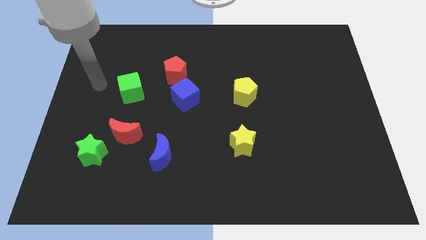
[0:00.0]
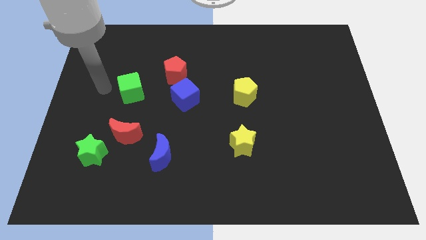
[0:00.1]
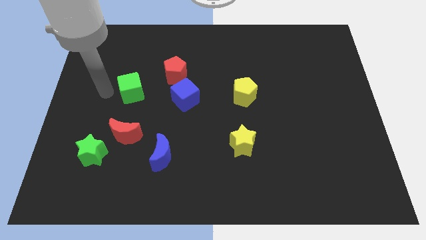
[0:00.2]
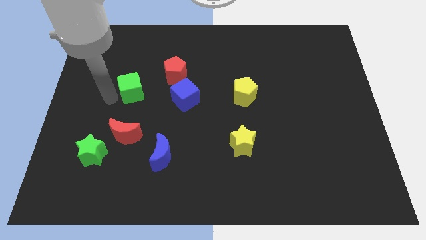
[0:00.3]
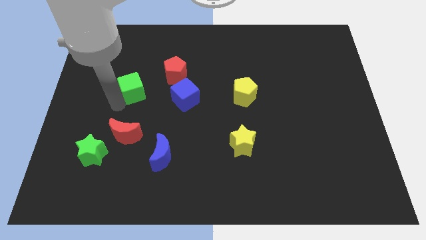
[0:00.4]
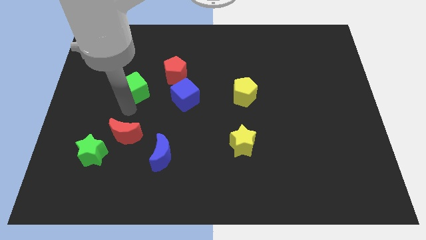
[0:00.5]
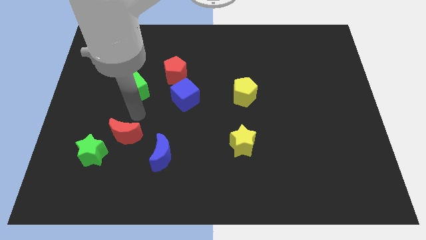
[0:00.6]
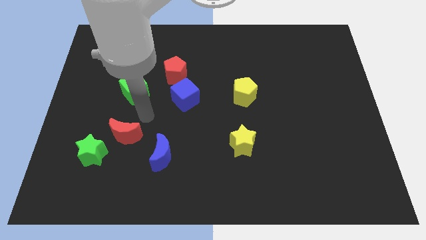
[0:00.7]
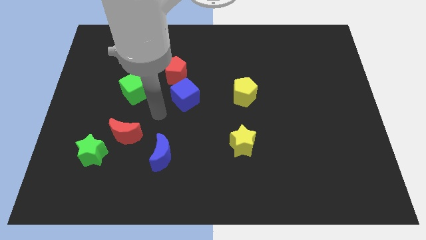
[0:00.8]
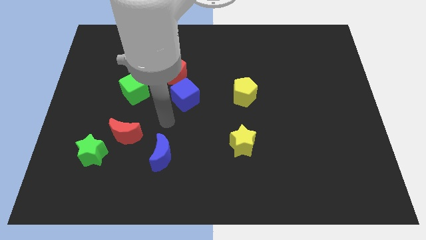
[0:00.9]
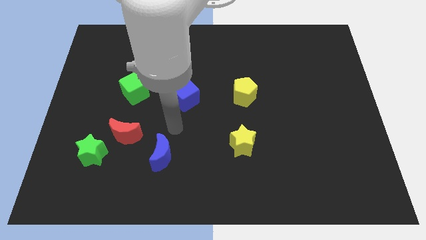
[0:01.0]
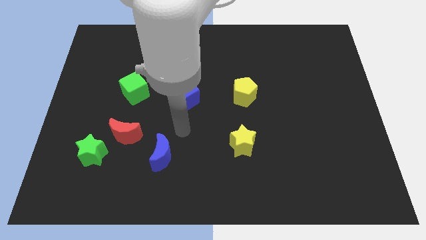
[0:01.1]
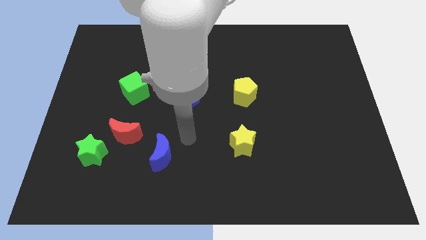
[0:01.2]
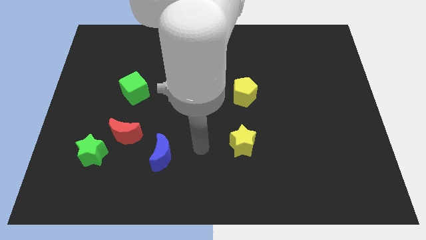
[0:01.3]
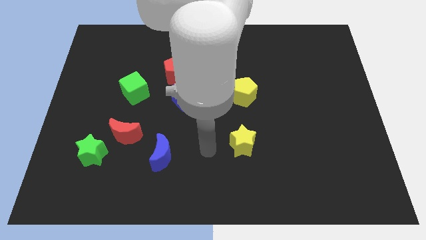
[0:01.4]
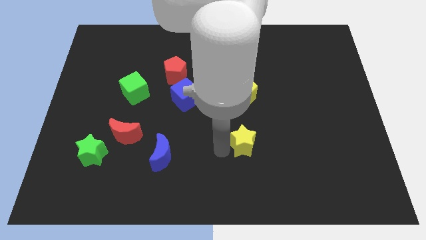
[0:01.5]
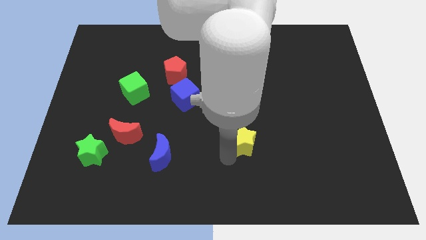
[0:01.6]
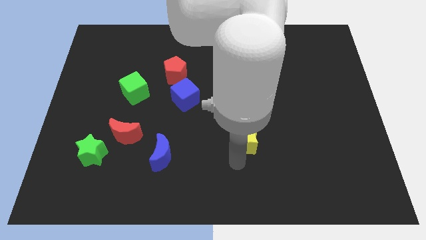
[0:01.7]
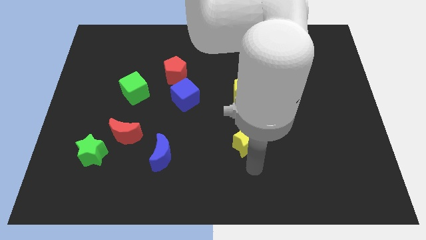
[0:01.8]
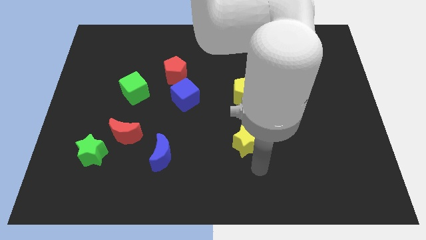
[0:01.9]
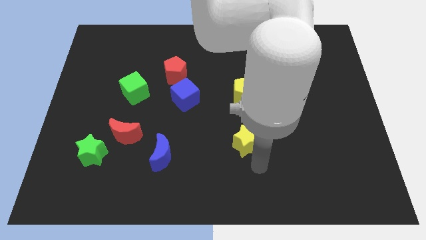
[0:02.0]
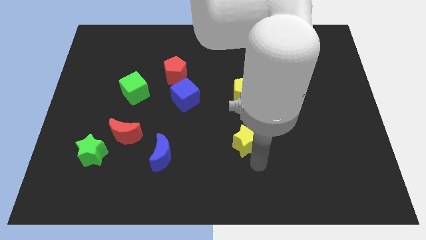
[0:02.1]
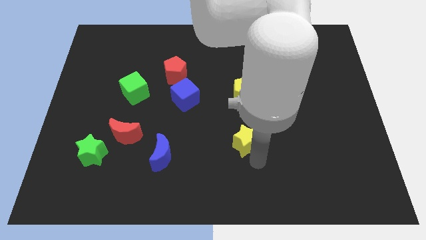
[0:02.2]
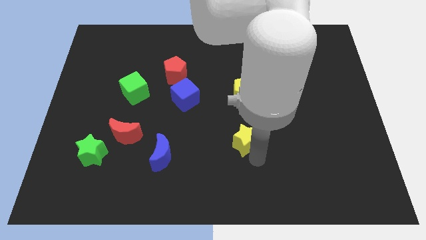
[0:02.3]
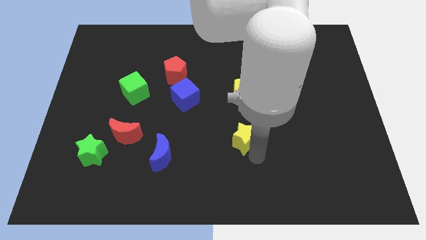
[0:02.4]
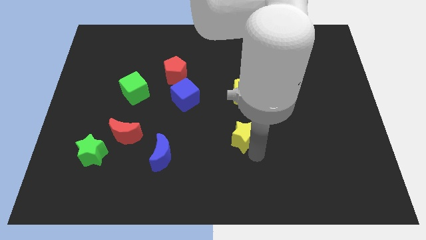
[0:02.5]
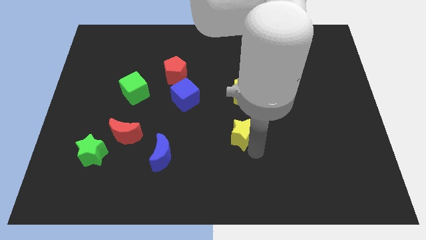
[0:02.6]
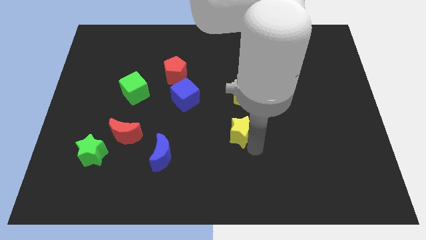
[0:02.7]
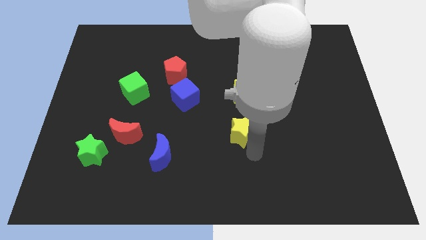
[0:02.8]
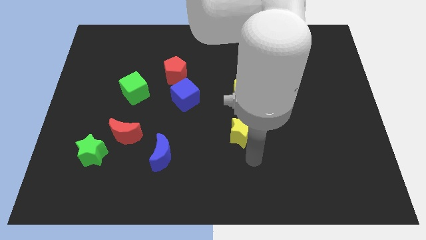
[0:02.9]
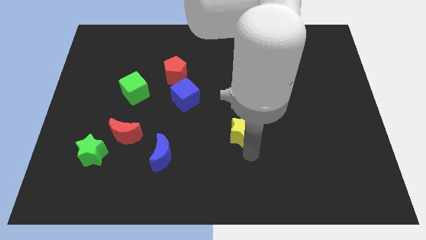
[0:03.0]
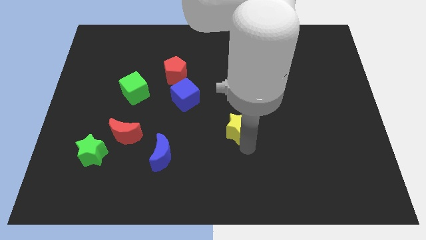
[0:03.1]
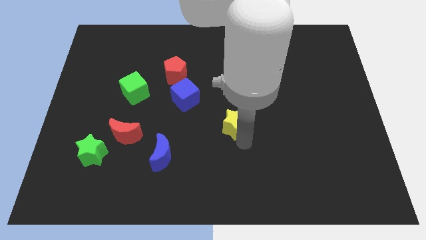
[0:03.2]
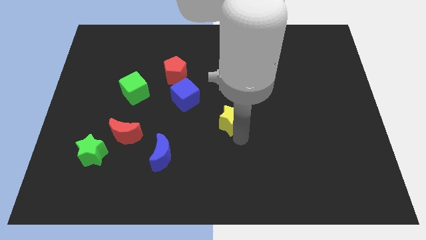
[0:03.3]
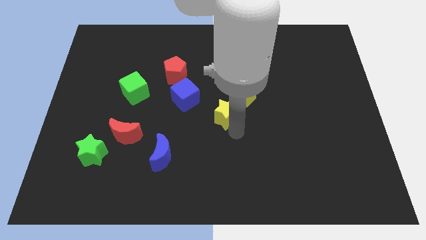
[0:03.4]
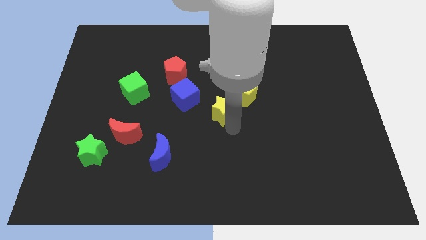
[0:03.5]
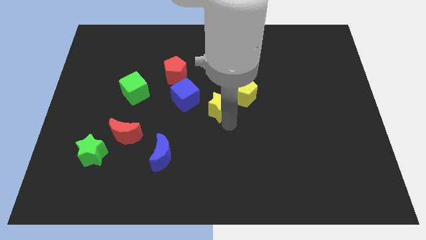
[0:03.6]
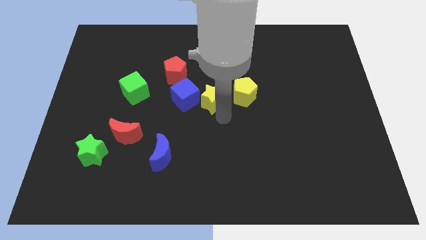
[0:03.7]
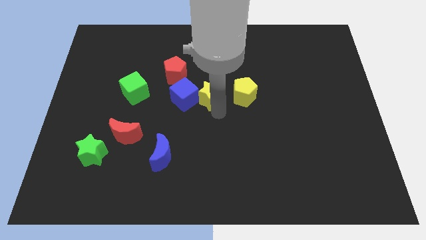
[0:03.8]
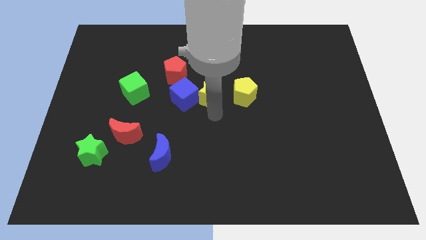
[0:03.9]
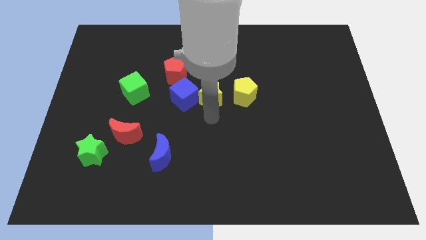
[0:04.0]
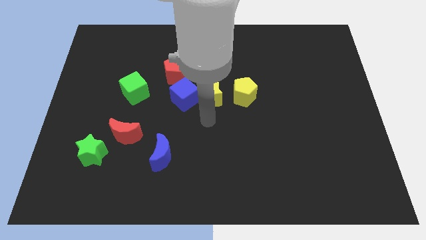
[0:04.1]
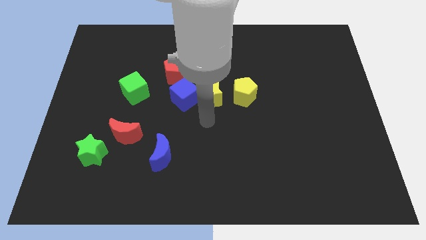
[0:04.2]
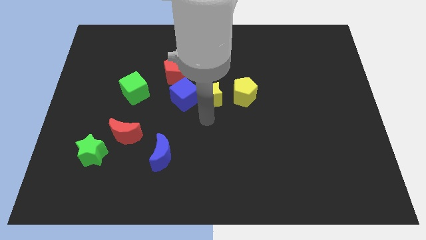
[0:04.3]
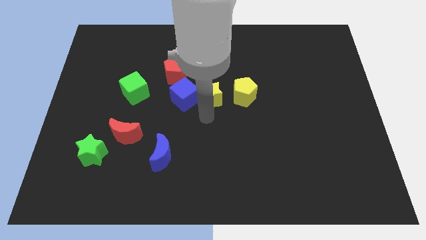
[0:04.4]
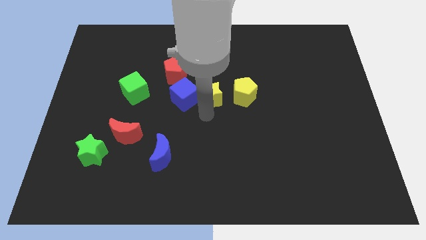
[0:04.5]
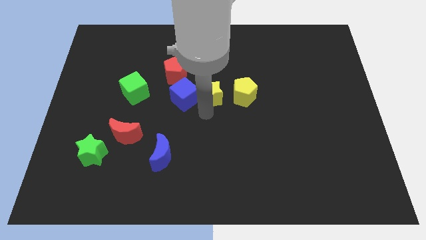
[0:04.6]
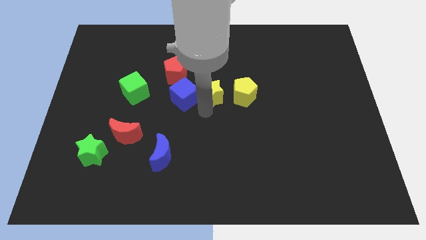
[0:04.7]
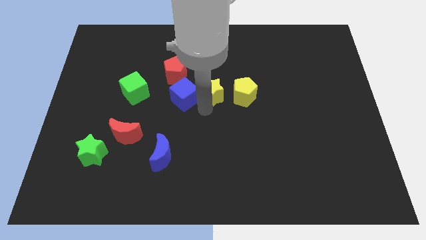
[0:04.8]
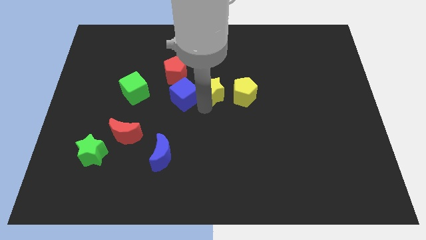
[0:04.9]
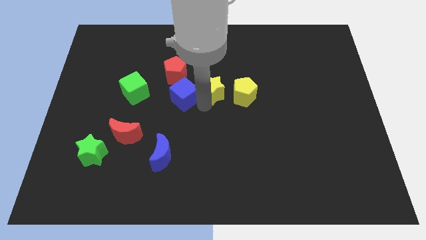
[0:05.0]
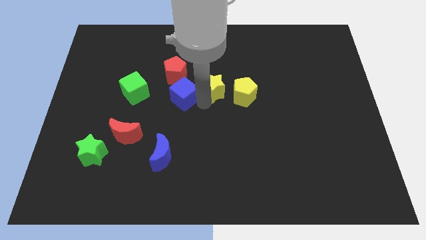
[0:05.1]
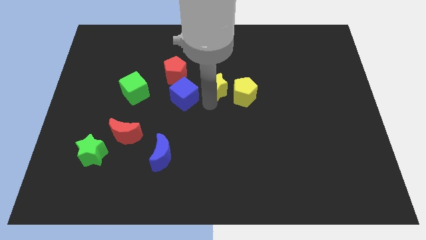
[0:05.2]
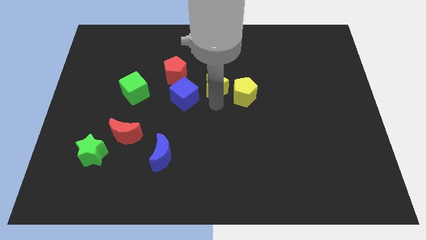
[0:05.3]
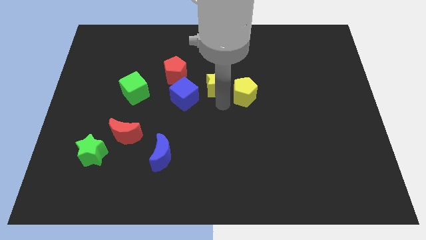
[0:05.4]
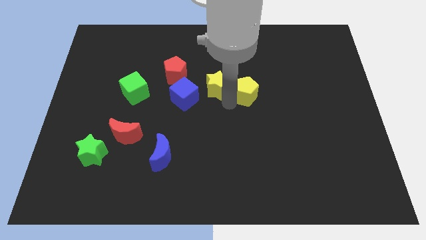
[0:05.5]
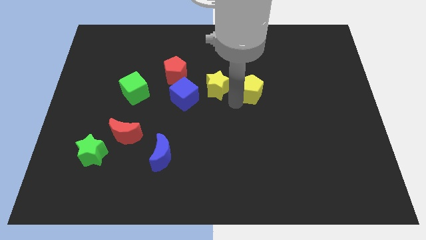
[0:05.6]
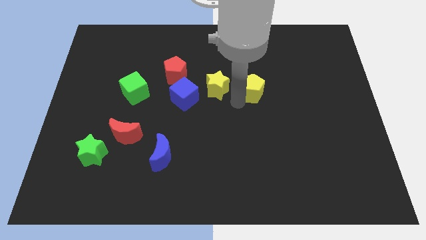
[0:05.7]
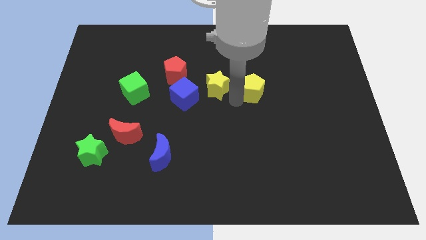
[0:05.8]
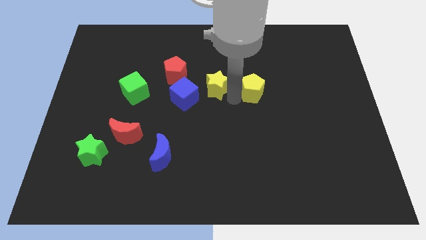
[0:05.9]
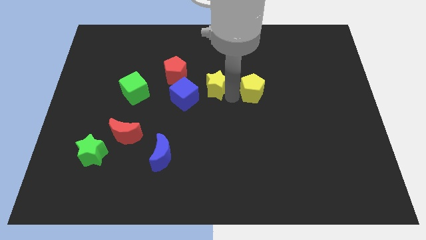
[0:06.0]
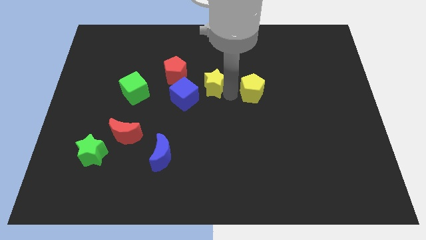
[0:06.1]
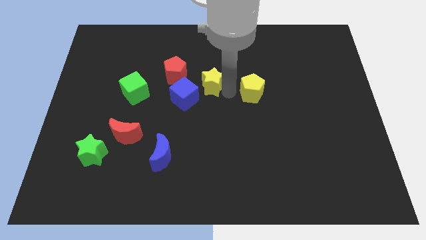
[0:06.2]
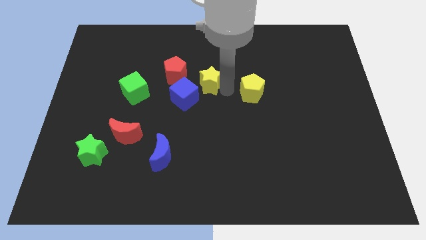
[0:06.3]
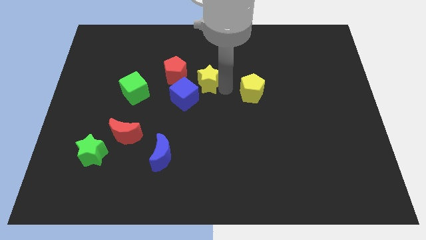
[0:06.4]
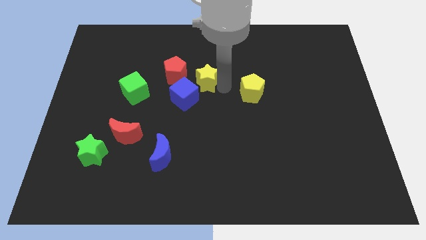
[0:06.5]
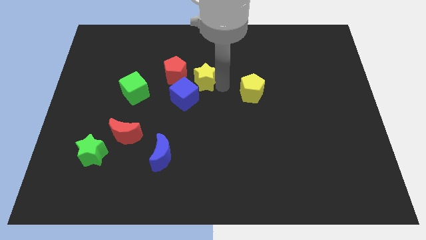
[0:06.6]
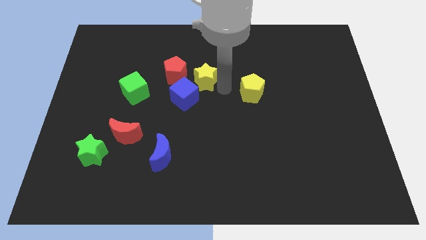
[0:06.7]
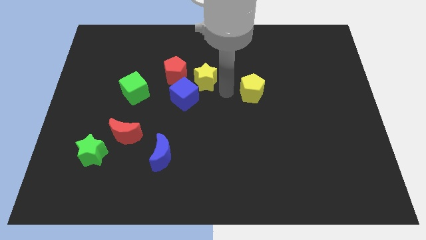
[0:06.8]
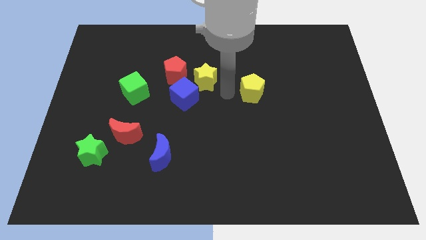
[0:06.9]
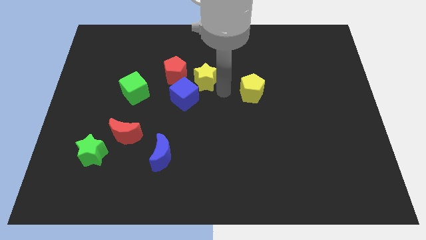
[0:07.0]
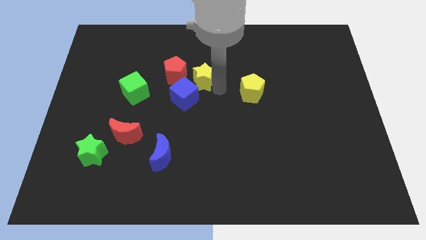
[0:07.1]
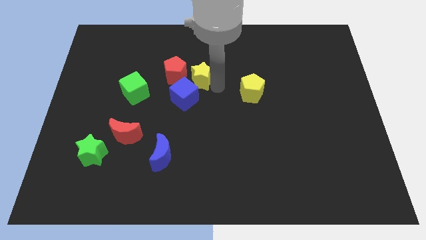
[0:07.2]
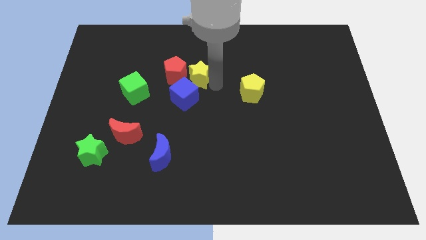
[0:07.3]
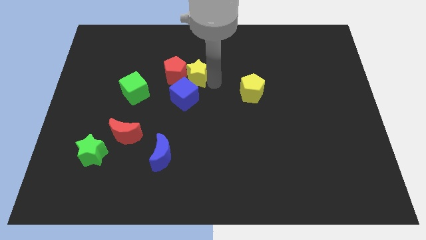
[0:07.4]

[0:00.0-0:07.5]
move the yellow star close to the red pentagon
